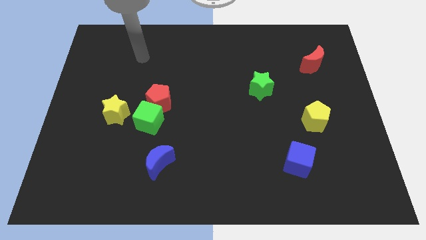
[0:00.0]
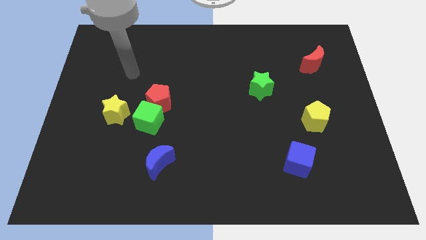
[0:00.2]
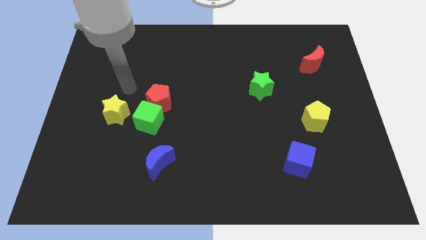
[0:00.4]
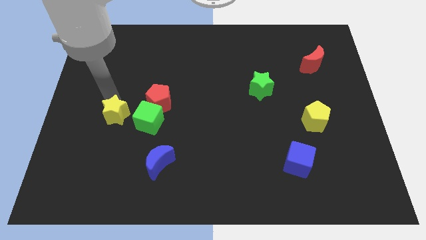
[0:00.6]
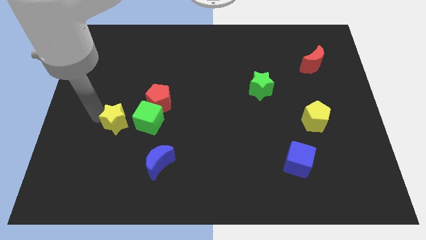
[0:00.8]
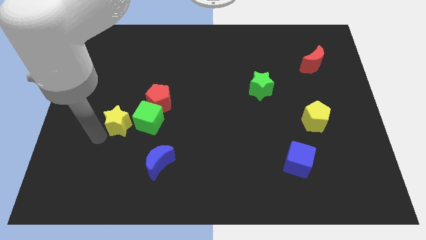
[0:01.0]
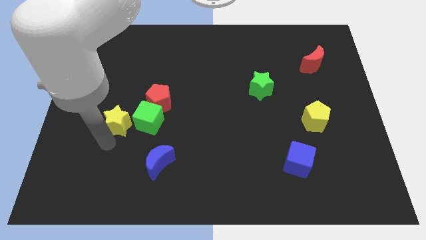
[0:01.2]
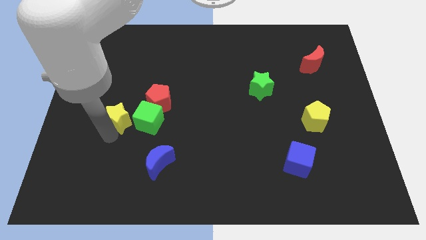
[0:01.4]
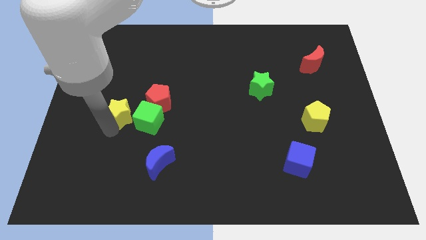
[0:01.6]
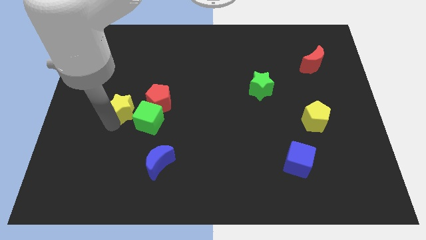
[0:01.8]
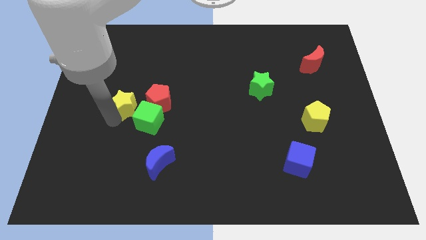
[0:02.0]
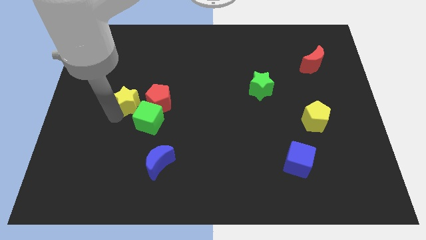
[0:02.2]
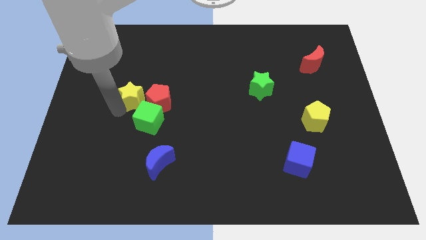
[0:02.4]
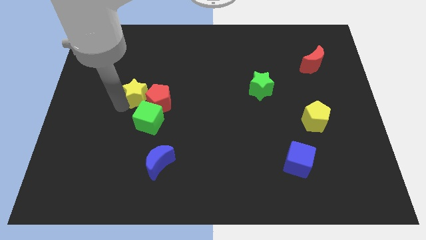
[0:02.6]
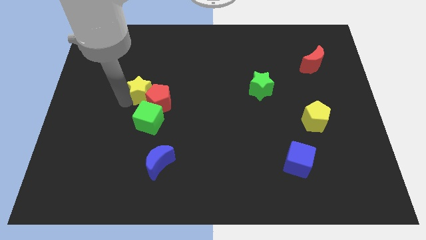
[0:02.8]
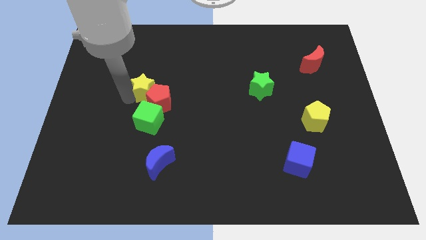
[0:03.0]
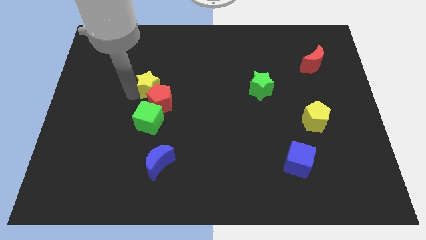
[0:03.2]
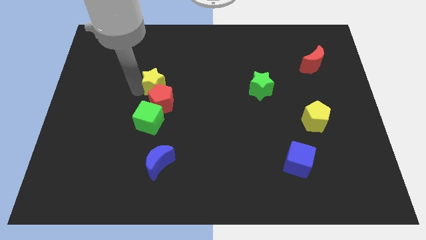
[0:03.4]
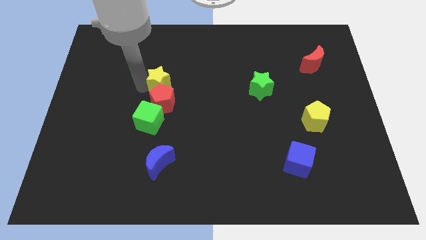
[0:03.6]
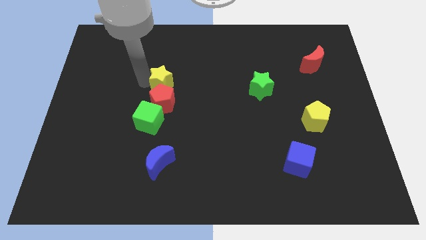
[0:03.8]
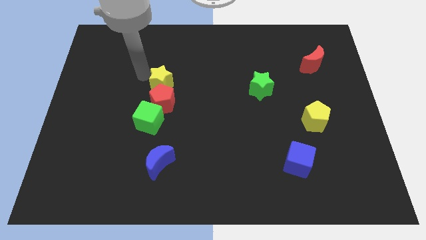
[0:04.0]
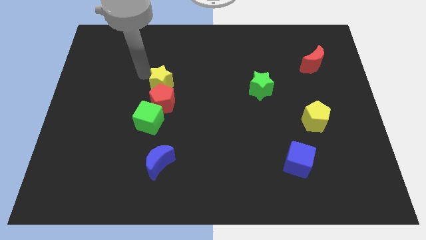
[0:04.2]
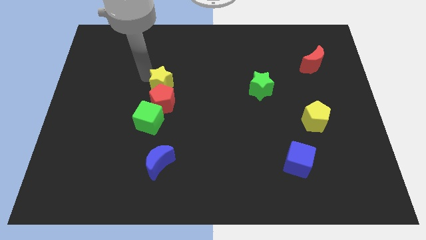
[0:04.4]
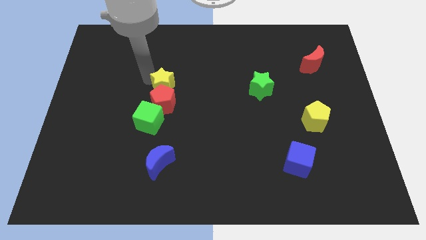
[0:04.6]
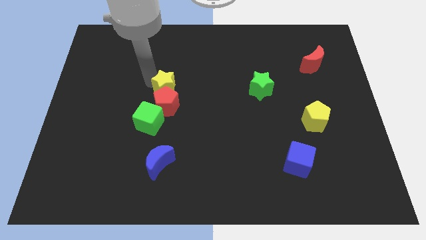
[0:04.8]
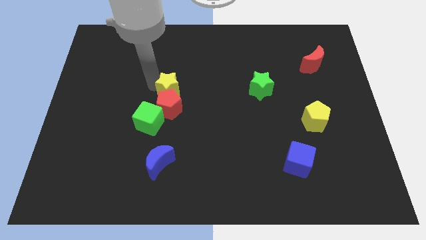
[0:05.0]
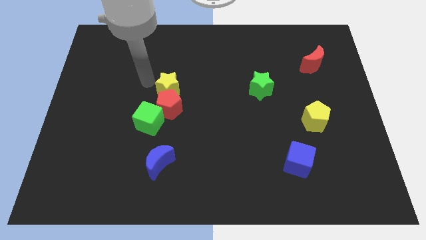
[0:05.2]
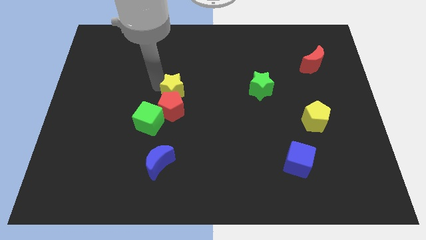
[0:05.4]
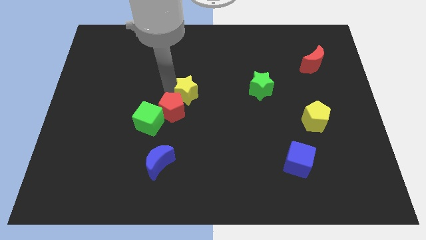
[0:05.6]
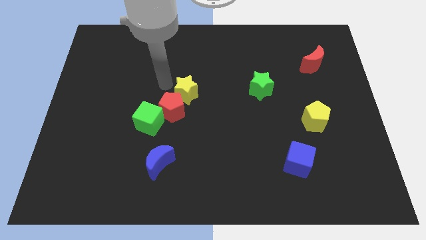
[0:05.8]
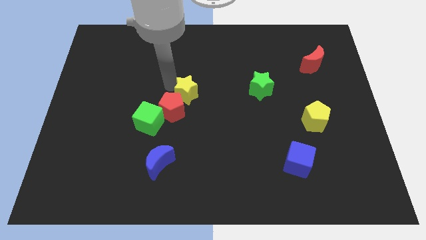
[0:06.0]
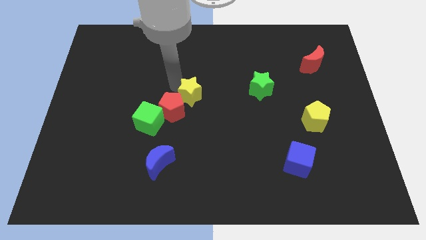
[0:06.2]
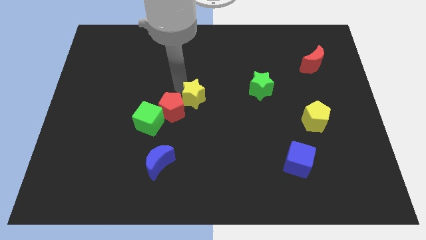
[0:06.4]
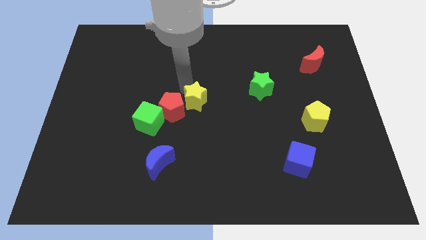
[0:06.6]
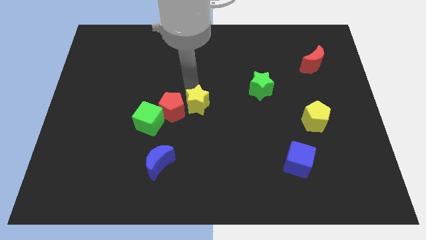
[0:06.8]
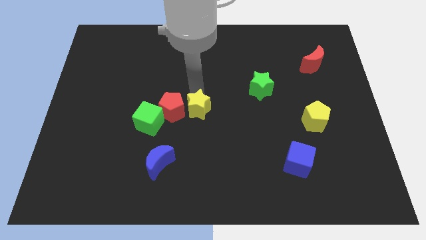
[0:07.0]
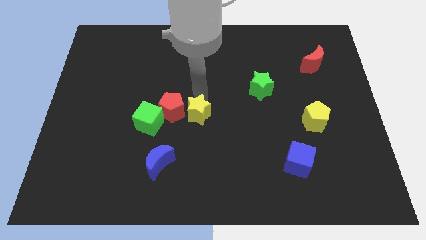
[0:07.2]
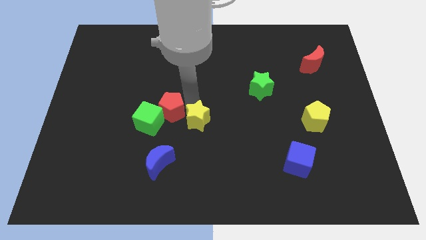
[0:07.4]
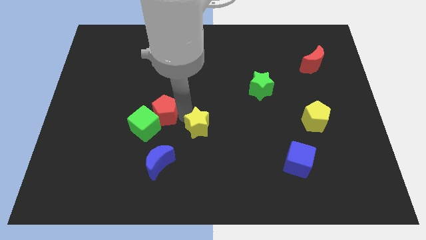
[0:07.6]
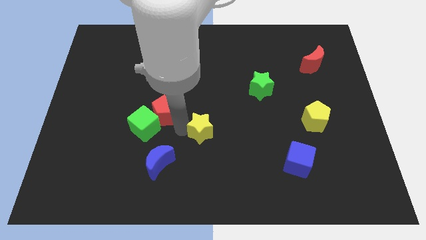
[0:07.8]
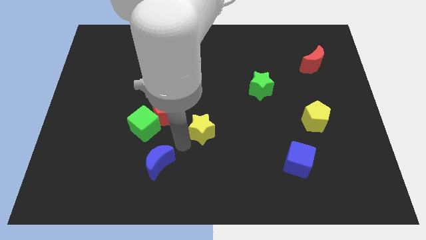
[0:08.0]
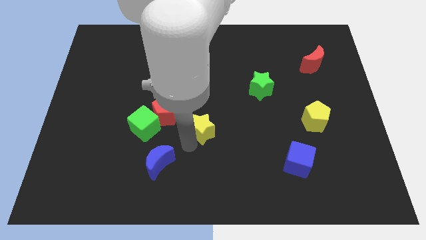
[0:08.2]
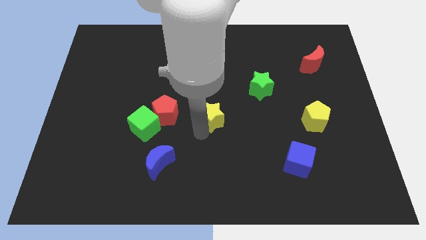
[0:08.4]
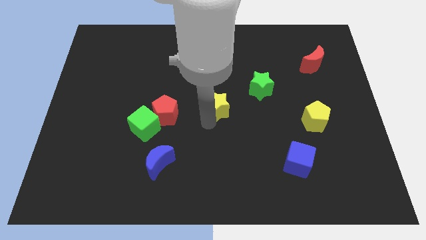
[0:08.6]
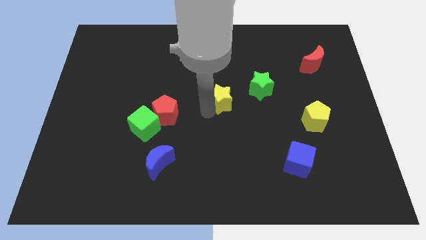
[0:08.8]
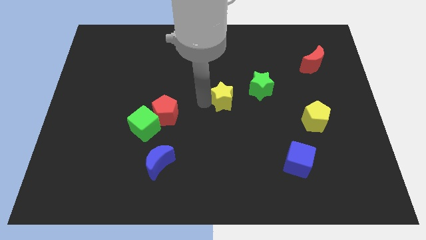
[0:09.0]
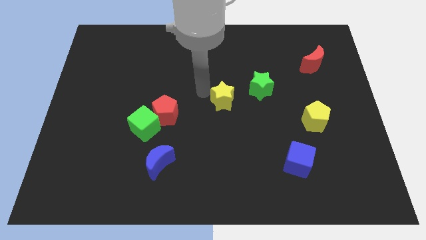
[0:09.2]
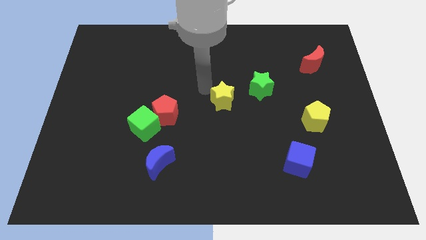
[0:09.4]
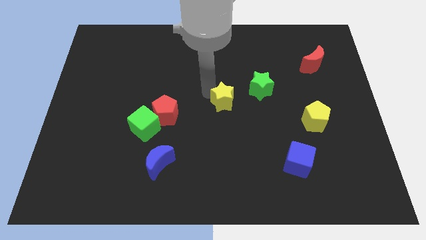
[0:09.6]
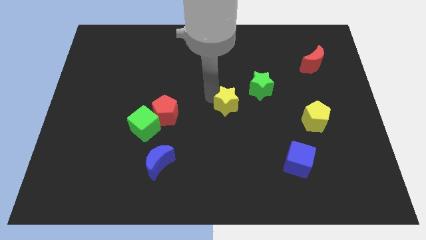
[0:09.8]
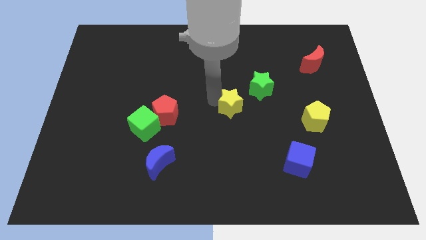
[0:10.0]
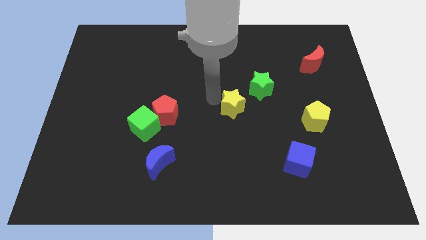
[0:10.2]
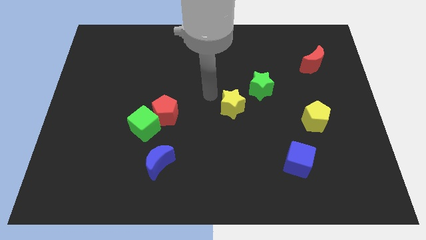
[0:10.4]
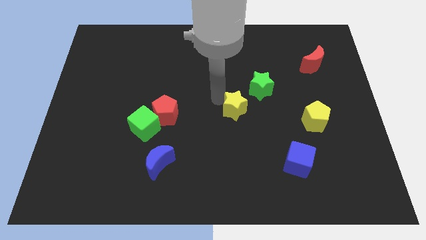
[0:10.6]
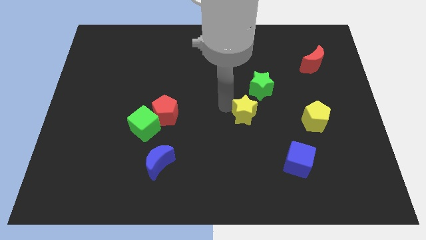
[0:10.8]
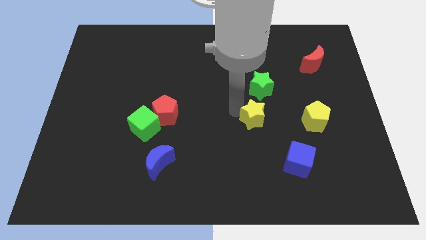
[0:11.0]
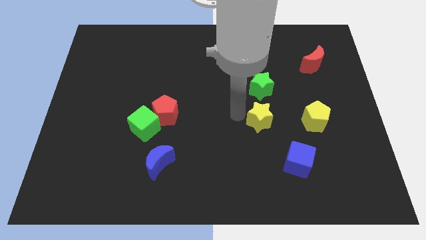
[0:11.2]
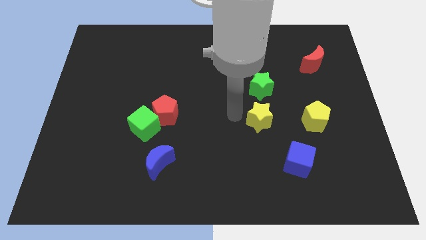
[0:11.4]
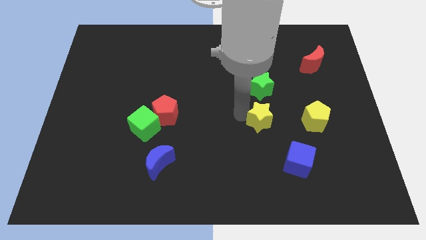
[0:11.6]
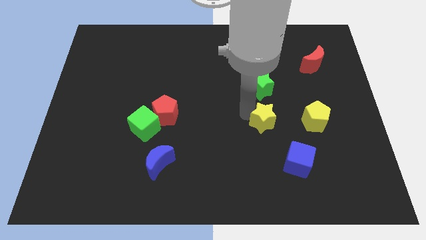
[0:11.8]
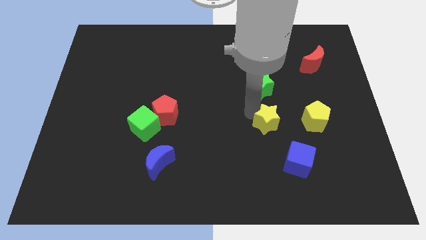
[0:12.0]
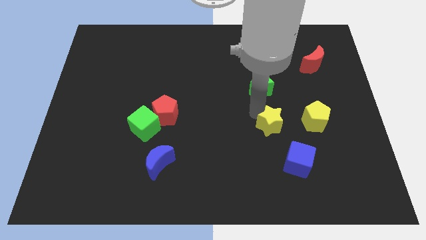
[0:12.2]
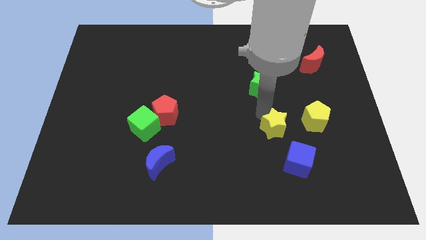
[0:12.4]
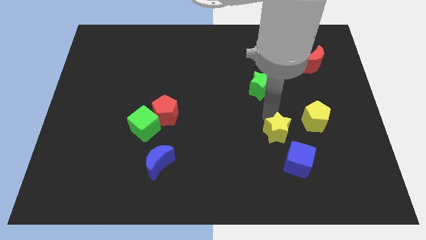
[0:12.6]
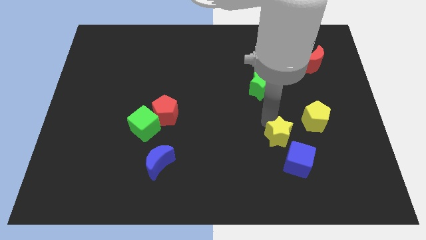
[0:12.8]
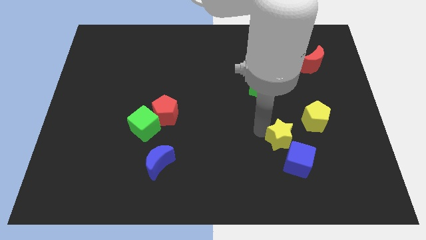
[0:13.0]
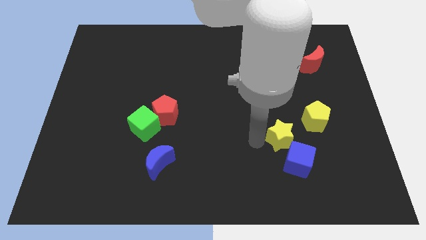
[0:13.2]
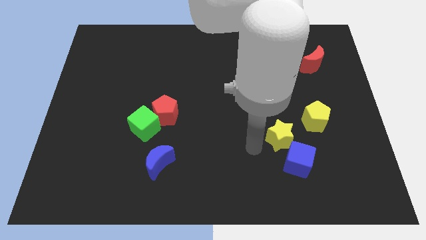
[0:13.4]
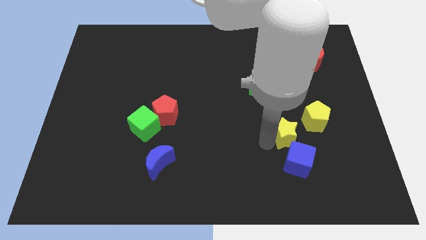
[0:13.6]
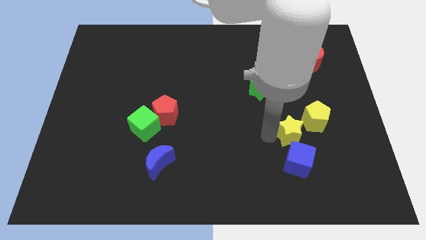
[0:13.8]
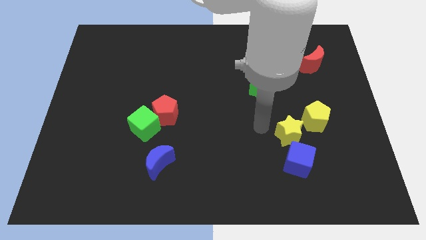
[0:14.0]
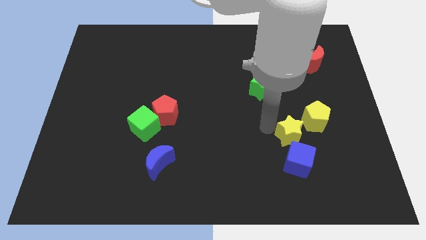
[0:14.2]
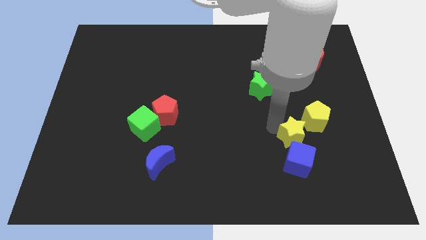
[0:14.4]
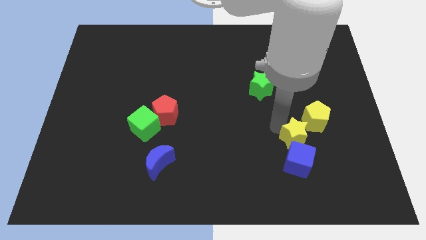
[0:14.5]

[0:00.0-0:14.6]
put the yellow star to the top right of the blue cube
